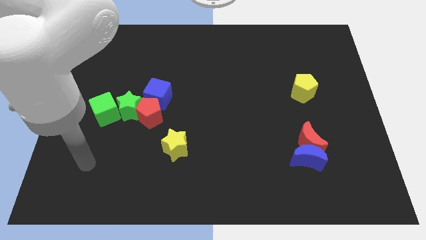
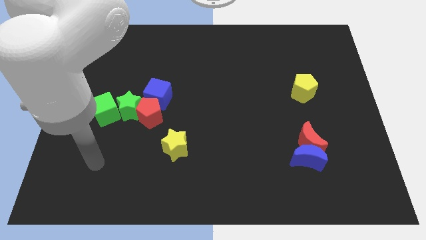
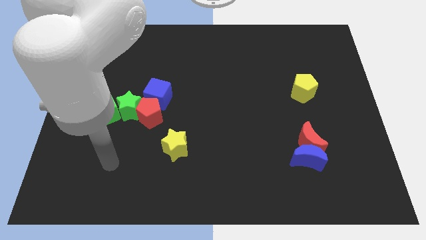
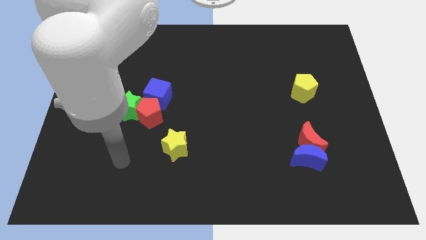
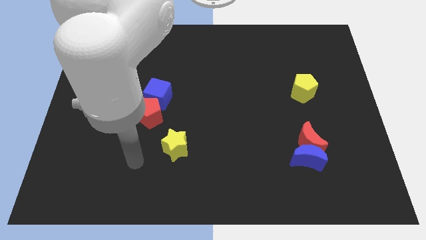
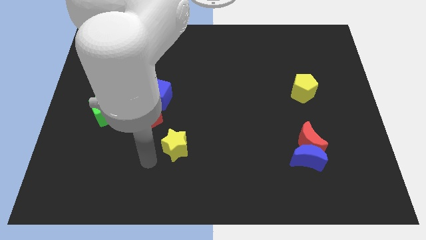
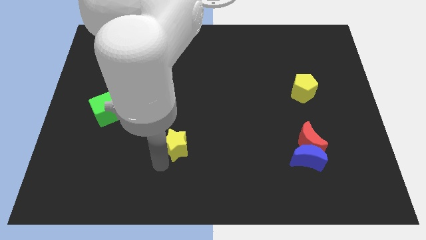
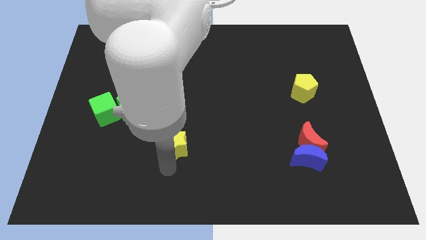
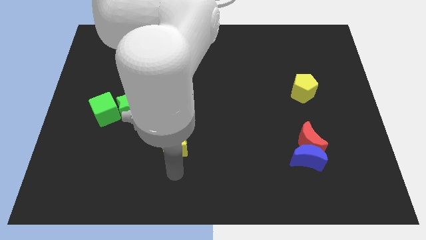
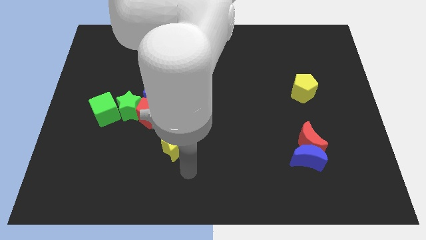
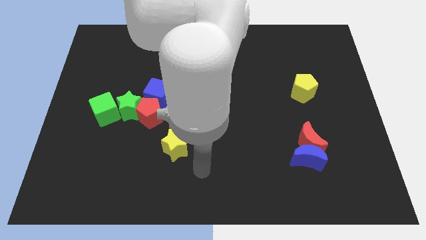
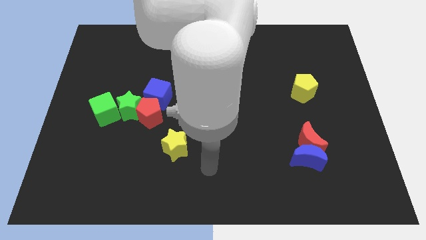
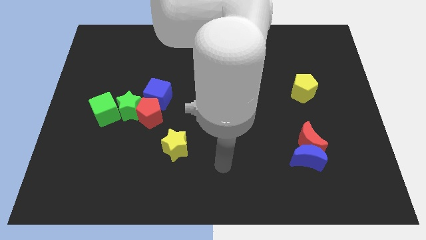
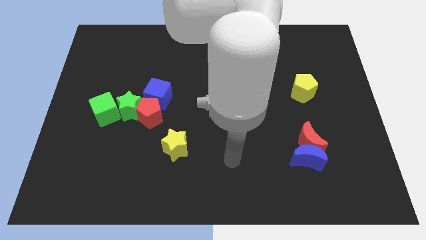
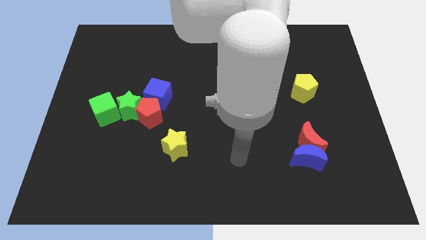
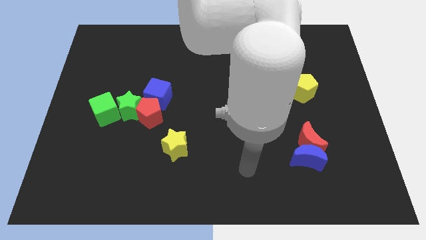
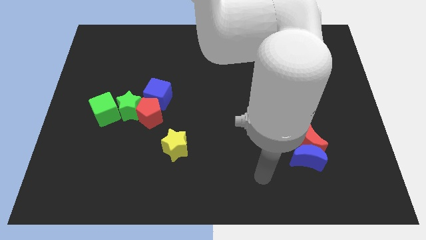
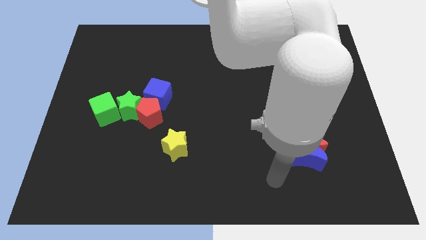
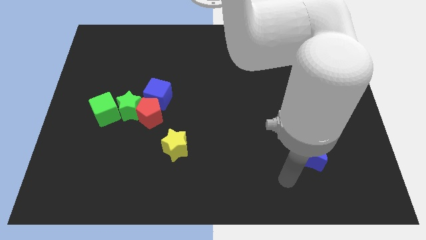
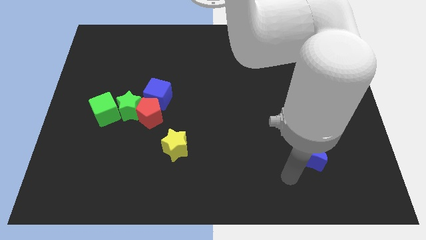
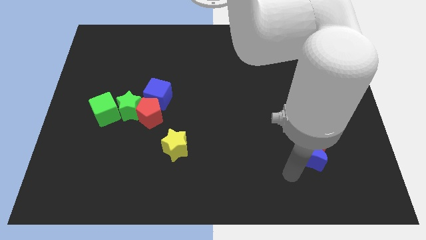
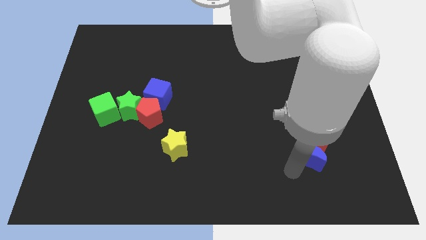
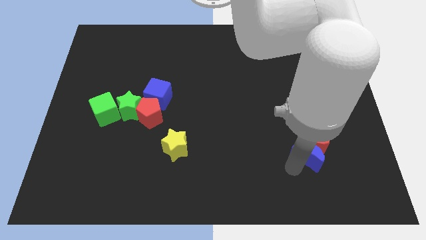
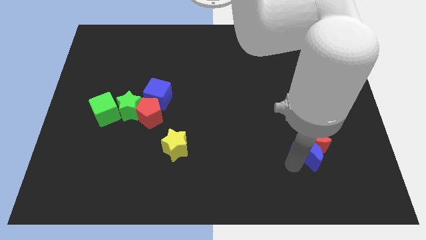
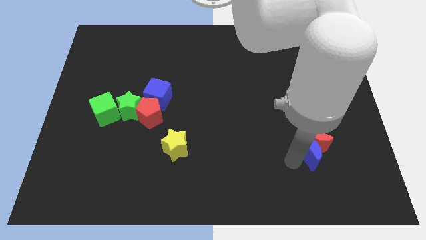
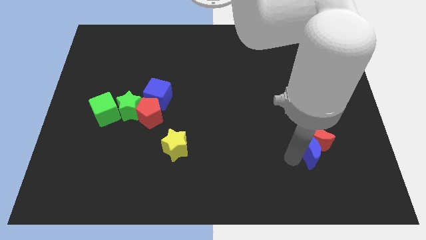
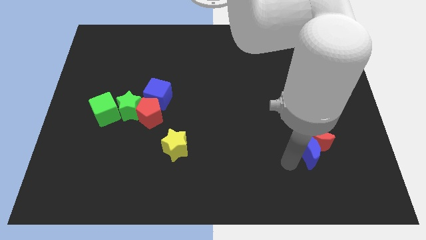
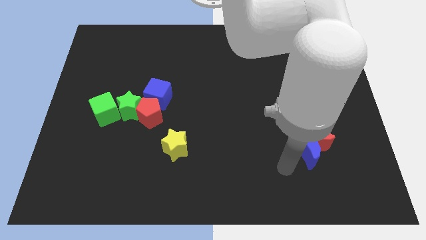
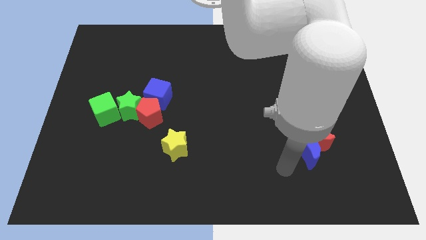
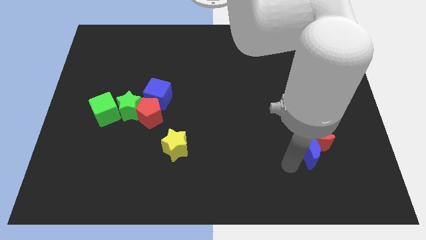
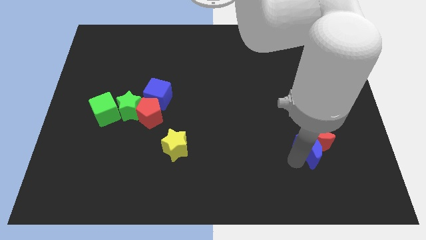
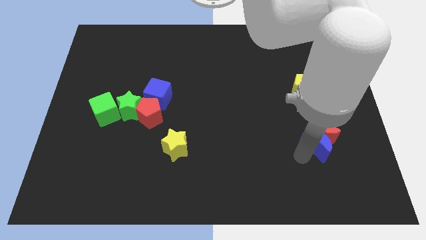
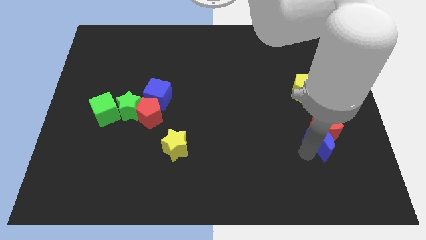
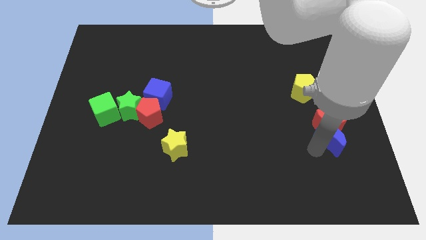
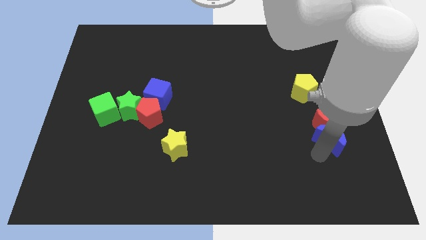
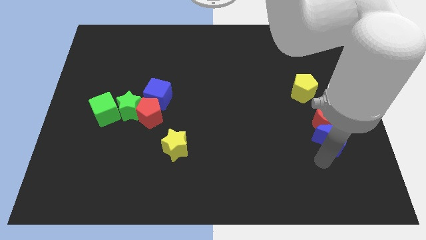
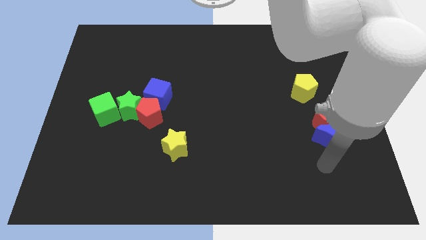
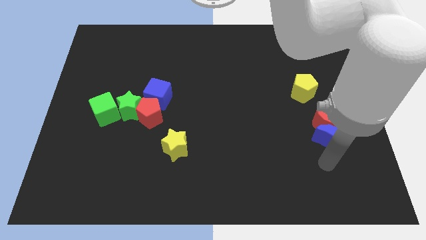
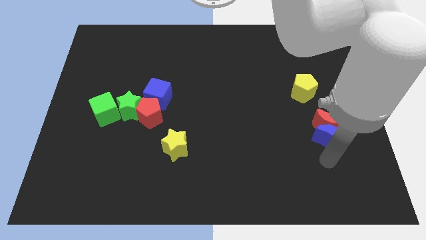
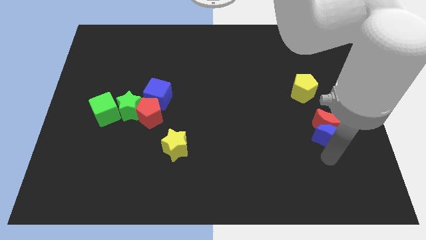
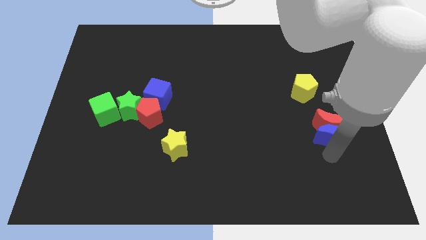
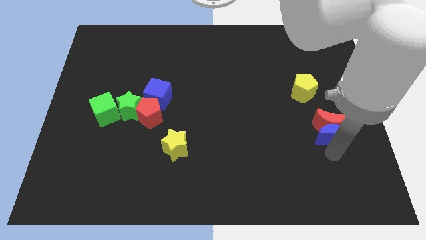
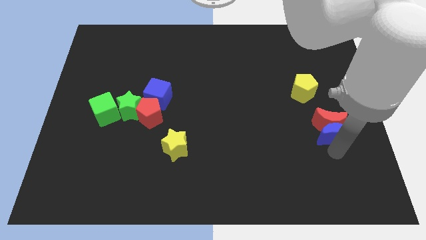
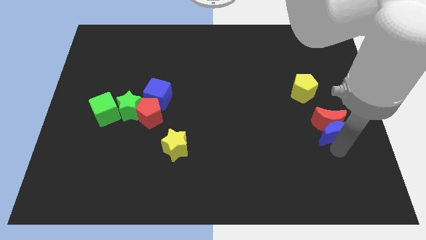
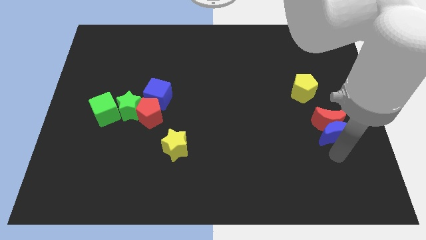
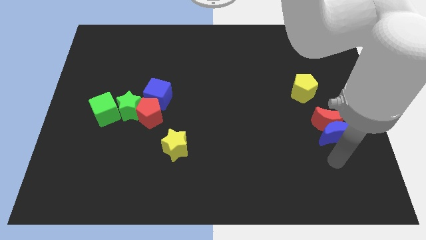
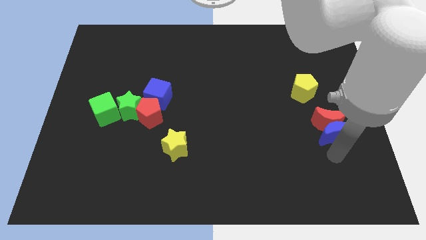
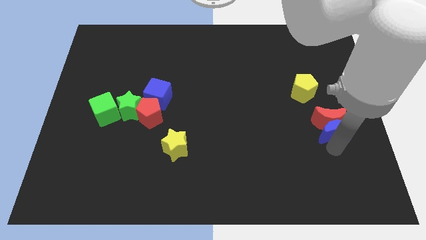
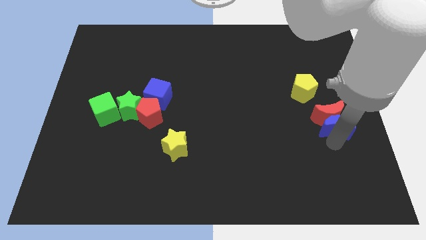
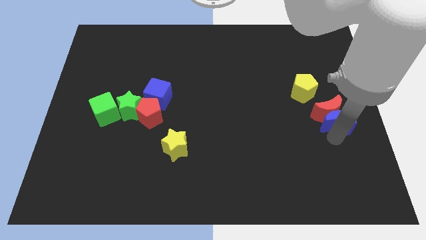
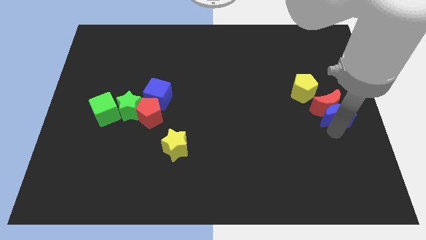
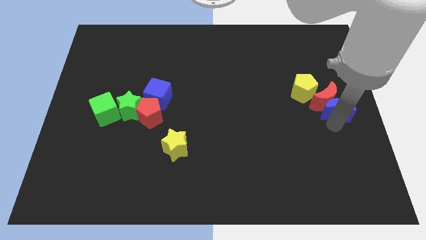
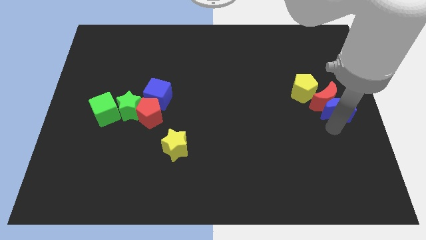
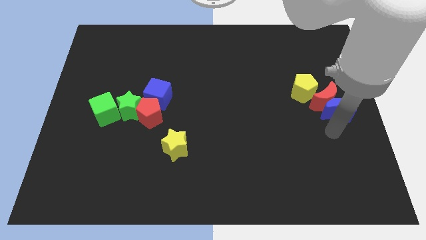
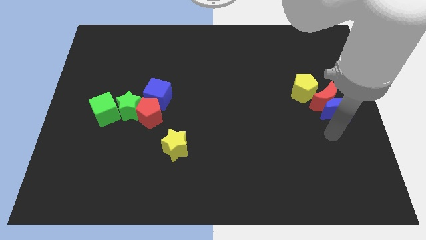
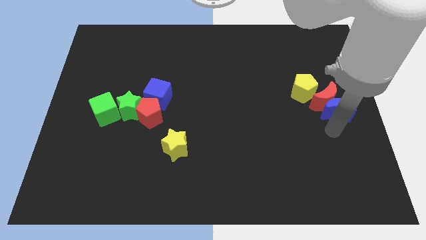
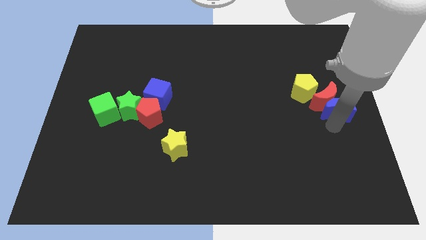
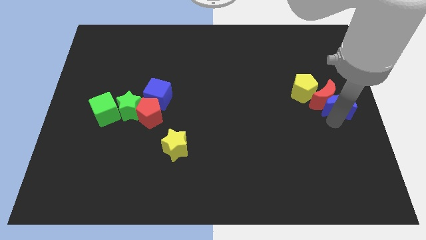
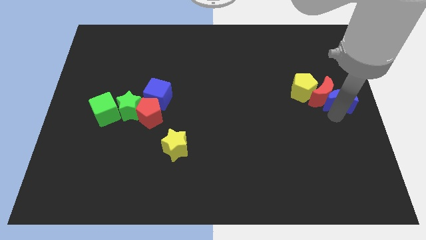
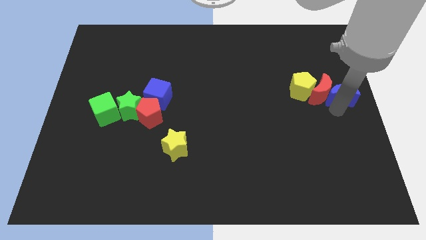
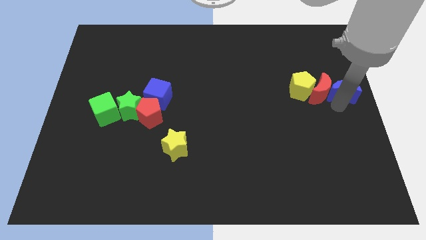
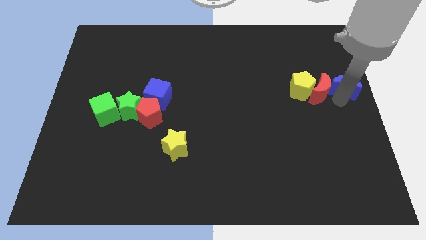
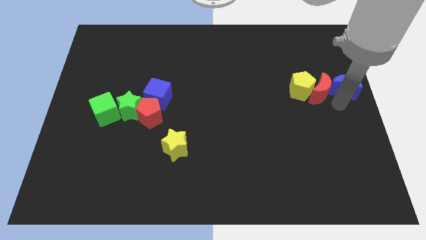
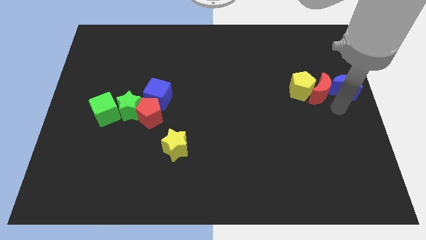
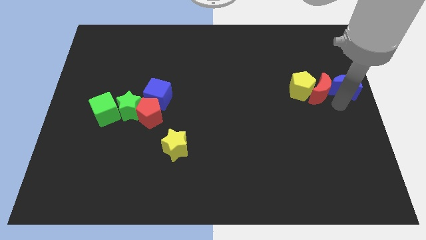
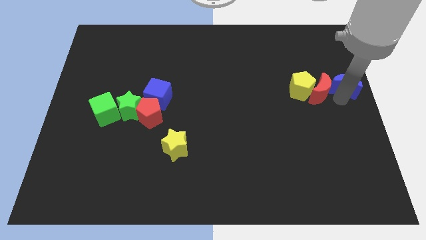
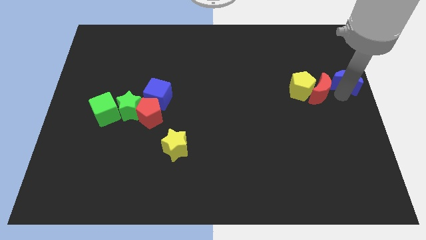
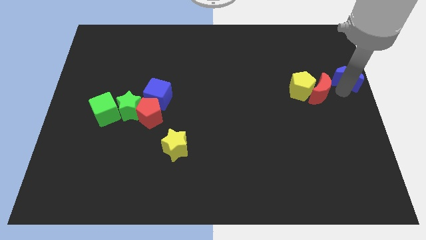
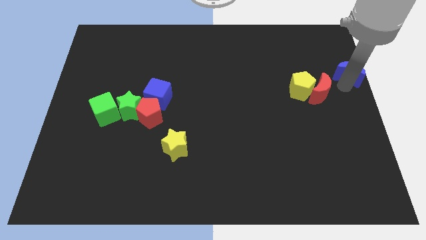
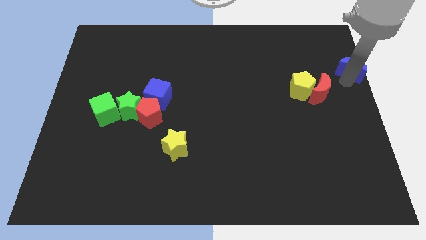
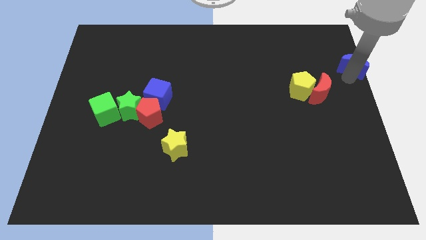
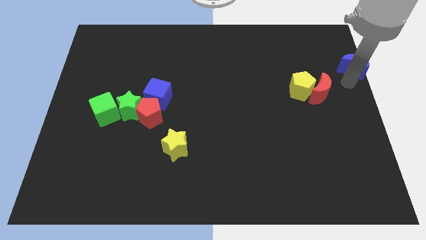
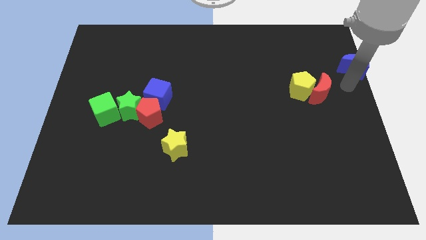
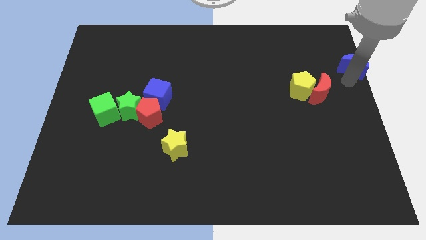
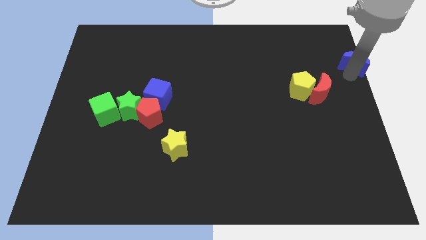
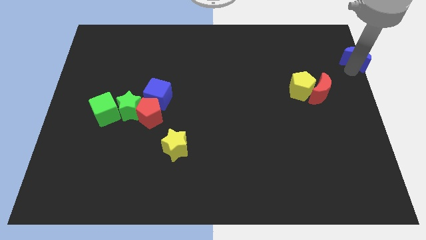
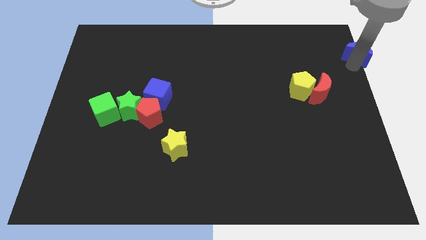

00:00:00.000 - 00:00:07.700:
move the blue moon to the top right
